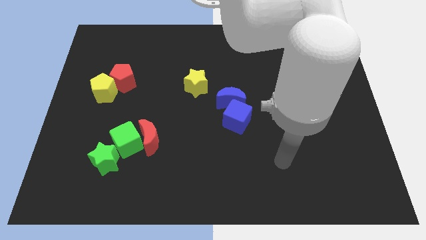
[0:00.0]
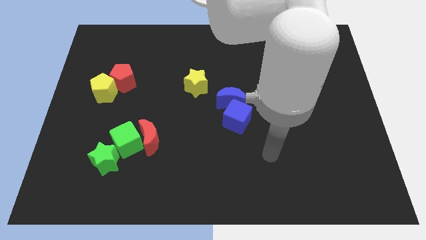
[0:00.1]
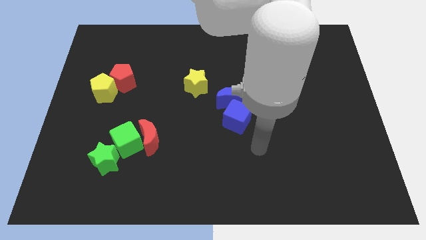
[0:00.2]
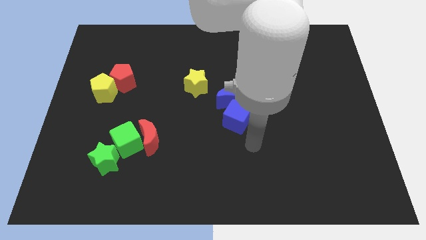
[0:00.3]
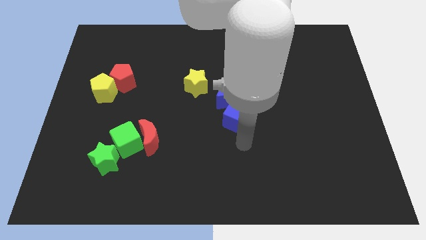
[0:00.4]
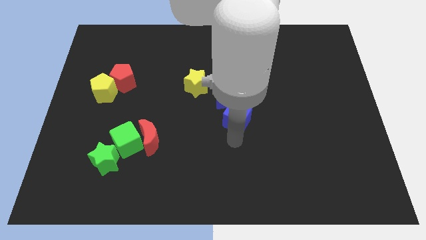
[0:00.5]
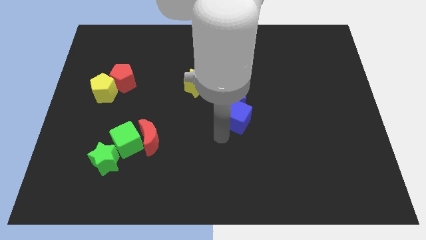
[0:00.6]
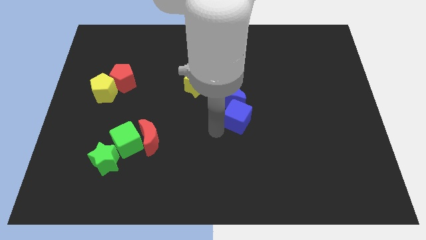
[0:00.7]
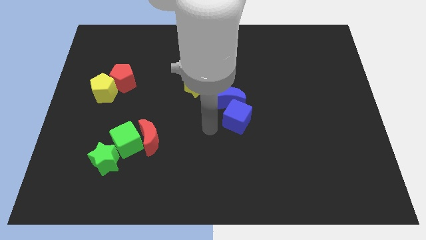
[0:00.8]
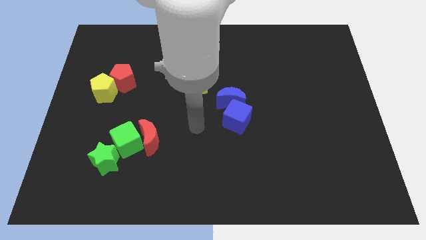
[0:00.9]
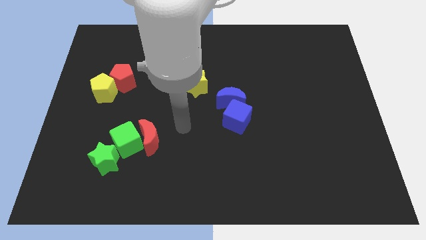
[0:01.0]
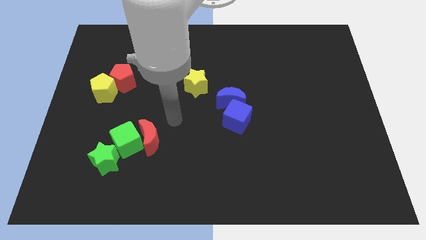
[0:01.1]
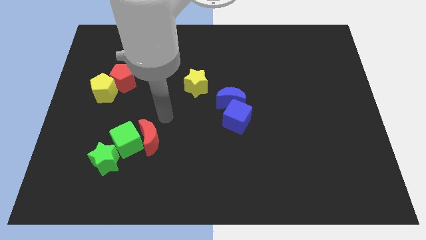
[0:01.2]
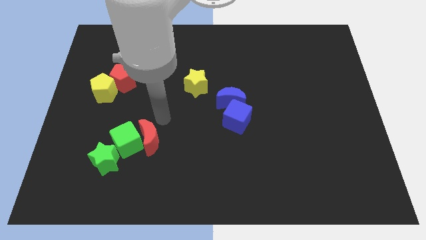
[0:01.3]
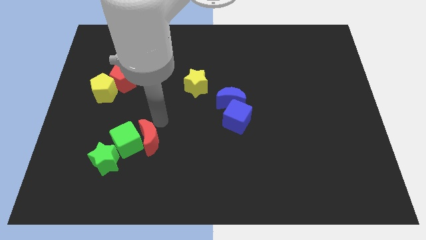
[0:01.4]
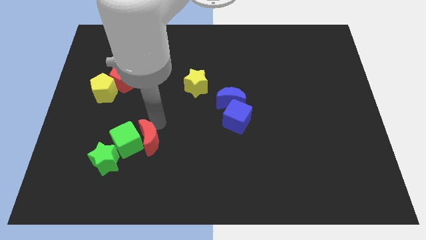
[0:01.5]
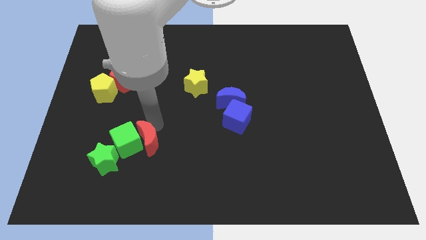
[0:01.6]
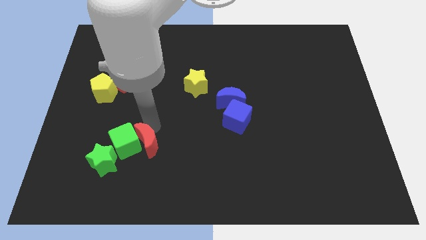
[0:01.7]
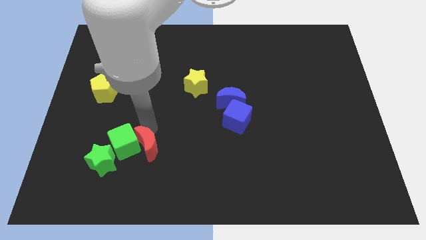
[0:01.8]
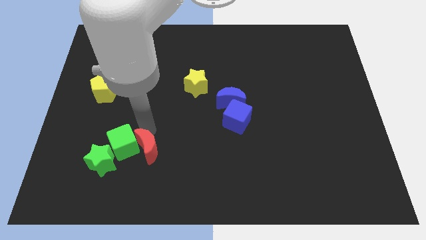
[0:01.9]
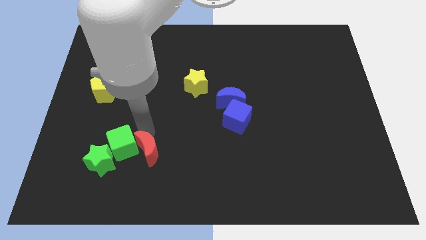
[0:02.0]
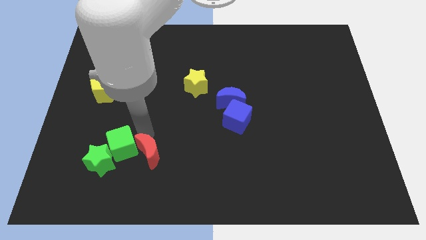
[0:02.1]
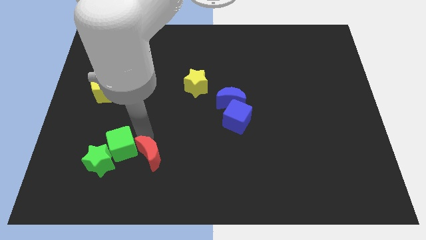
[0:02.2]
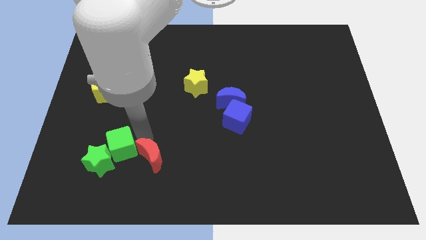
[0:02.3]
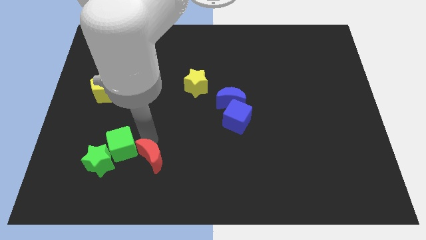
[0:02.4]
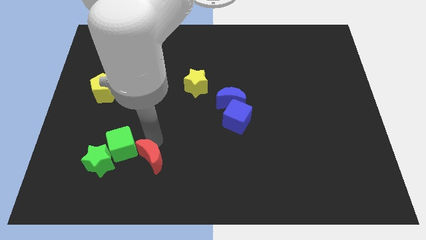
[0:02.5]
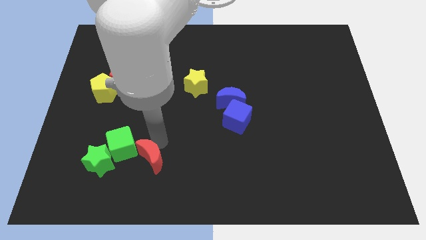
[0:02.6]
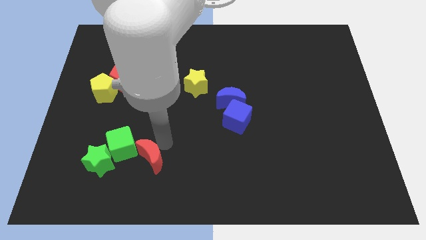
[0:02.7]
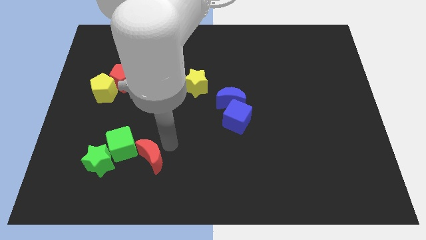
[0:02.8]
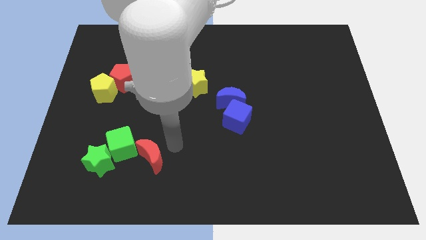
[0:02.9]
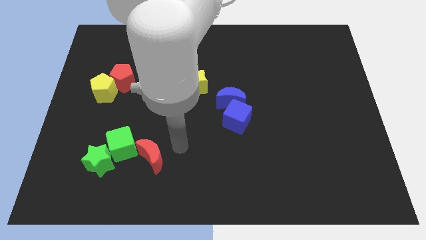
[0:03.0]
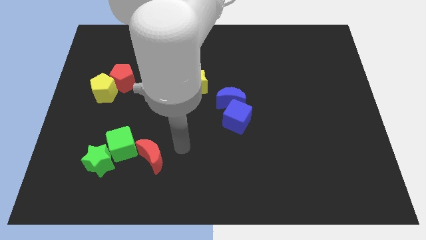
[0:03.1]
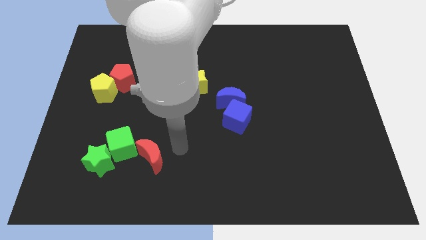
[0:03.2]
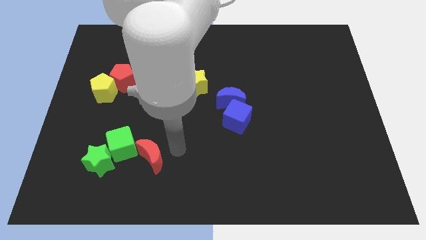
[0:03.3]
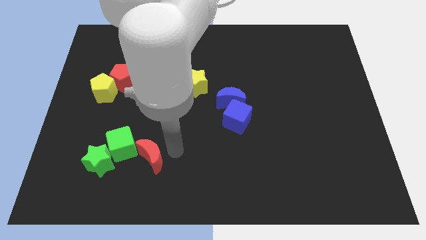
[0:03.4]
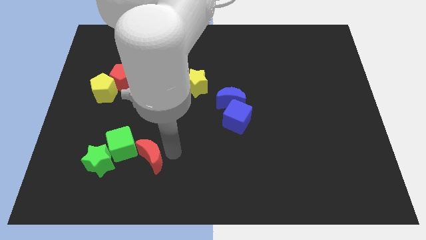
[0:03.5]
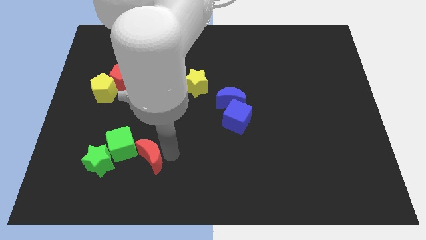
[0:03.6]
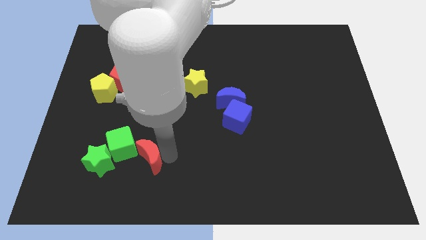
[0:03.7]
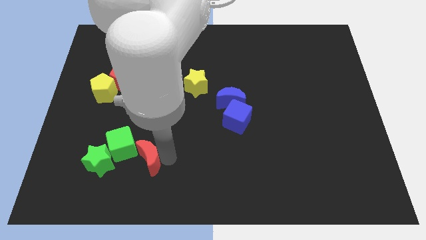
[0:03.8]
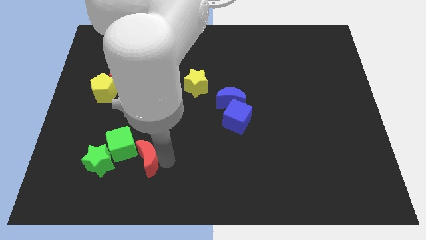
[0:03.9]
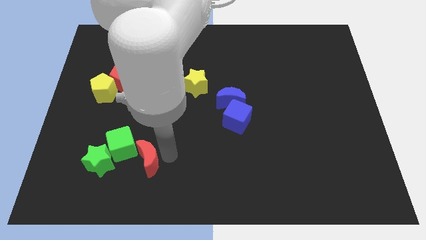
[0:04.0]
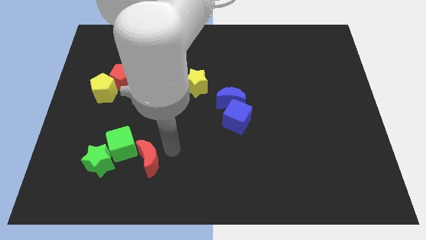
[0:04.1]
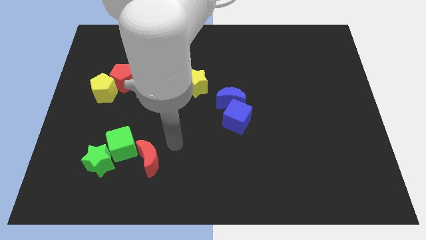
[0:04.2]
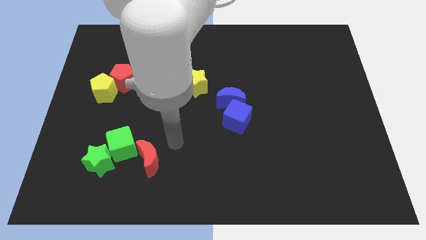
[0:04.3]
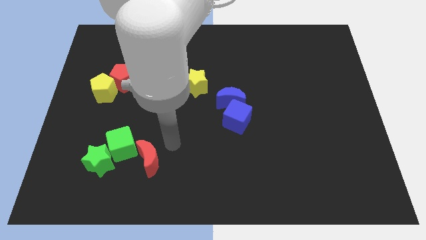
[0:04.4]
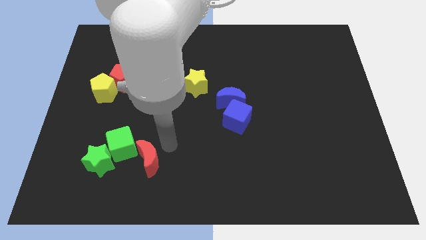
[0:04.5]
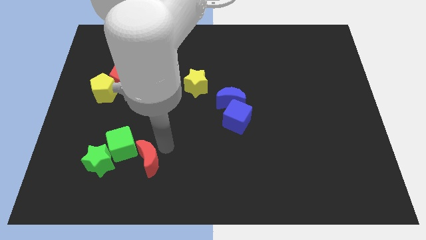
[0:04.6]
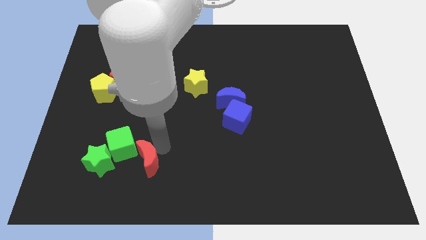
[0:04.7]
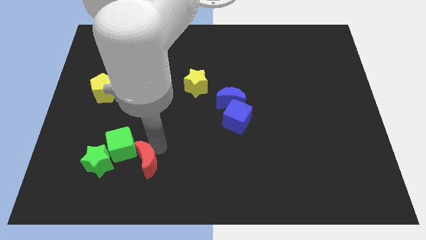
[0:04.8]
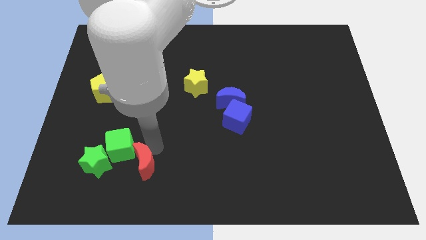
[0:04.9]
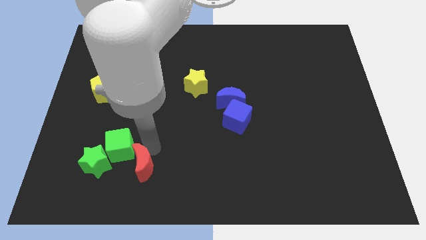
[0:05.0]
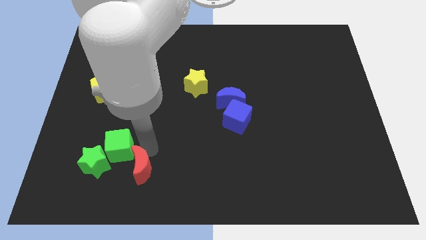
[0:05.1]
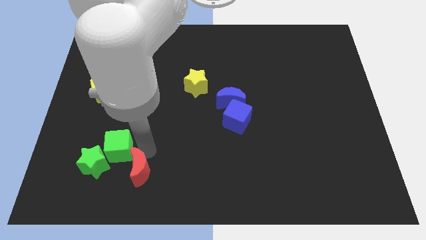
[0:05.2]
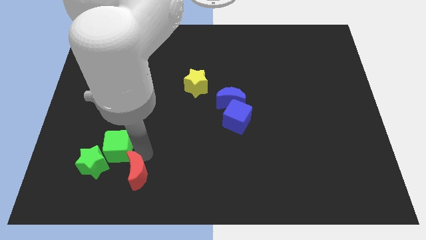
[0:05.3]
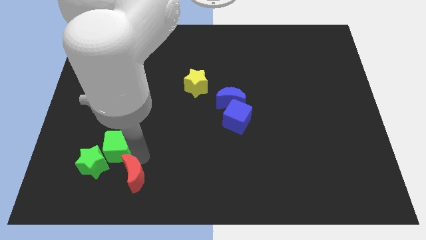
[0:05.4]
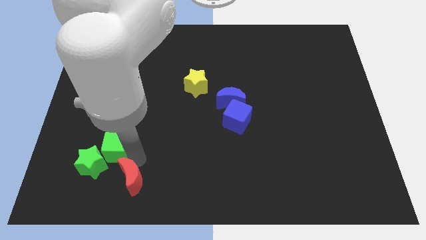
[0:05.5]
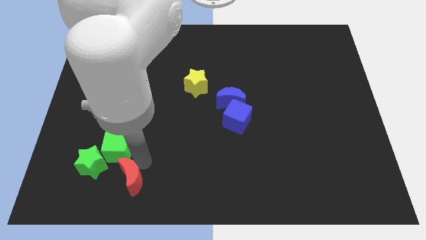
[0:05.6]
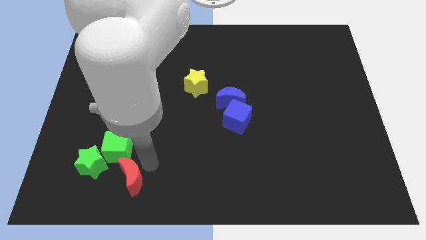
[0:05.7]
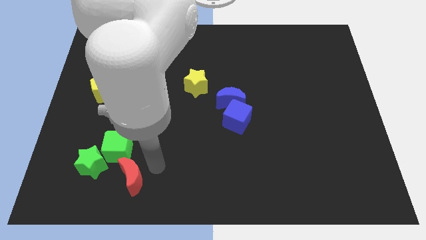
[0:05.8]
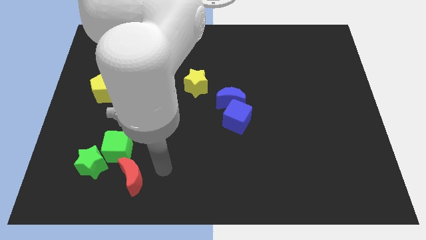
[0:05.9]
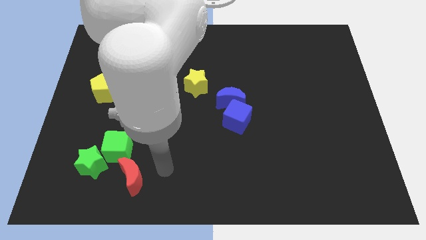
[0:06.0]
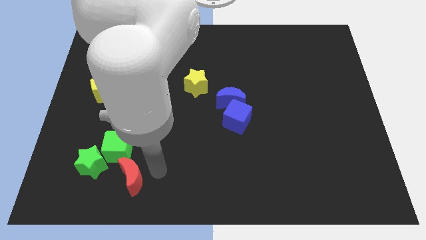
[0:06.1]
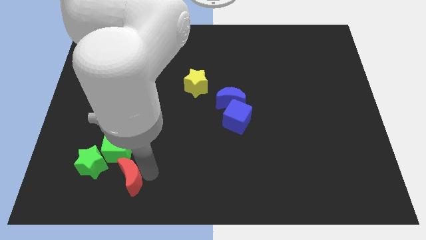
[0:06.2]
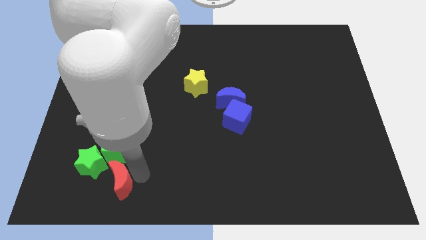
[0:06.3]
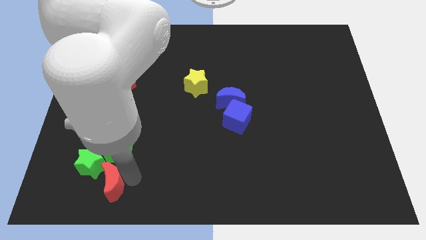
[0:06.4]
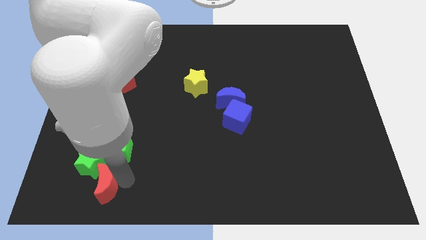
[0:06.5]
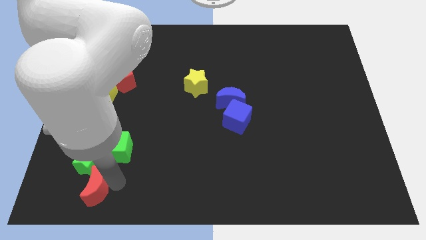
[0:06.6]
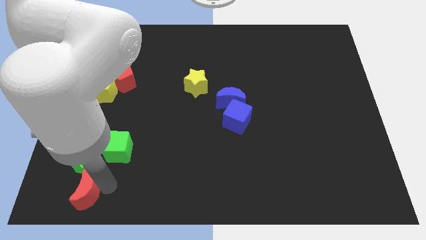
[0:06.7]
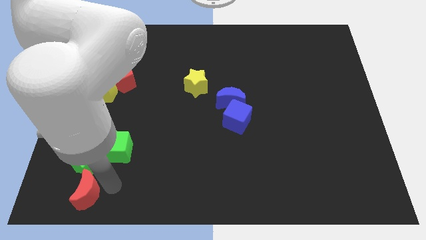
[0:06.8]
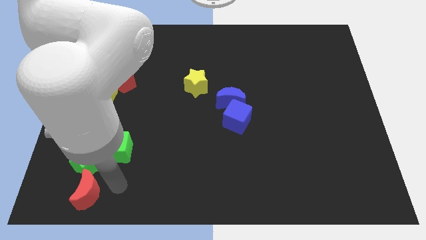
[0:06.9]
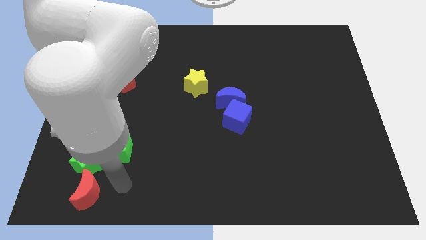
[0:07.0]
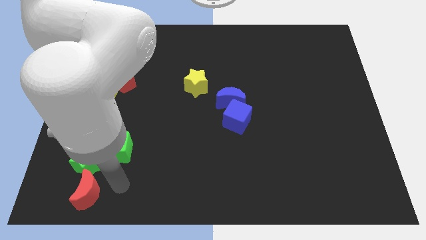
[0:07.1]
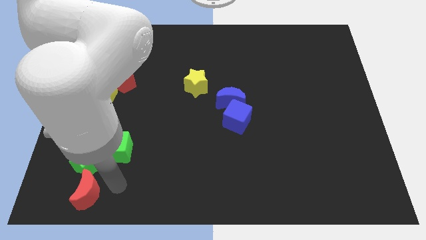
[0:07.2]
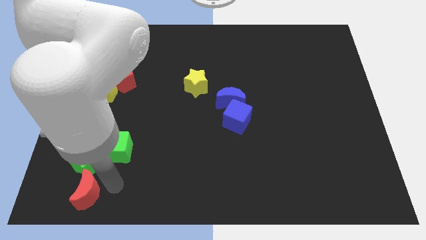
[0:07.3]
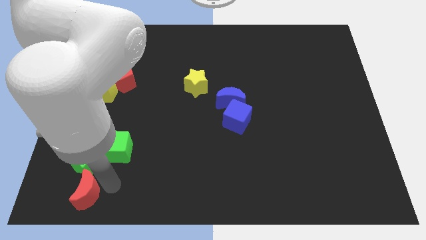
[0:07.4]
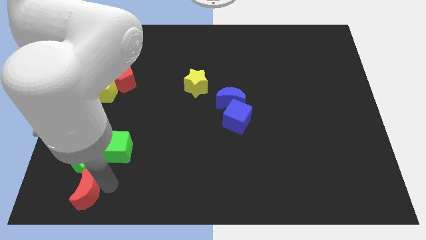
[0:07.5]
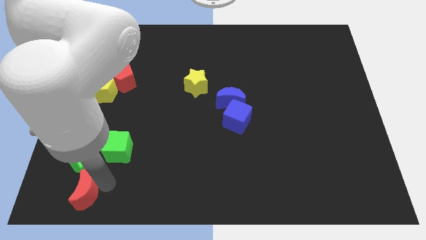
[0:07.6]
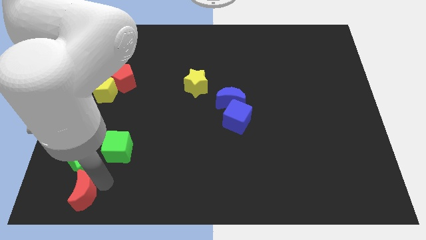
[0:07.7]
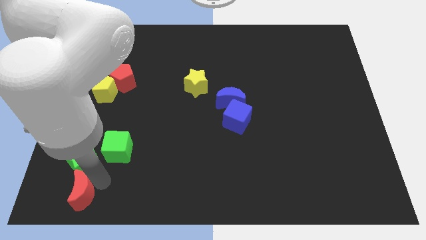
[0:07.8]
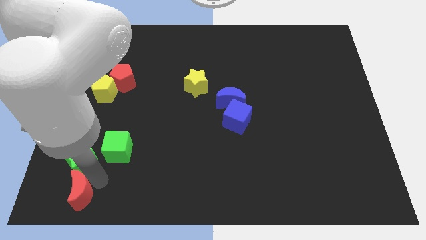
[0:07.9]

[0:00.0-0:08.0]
slide the red moon to the bottom left of the board
